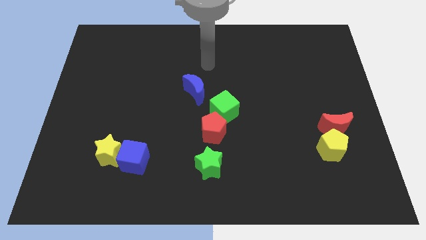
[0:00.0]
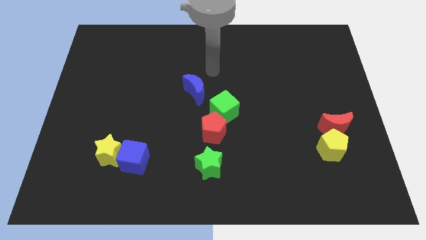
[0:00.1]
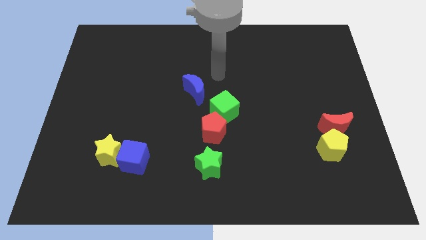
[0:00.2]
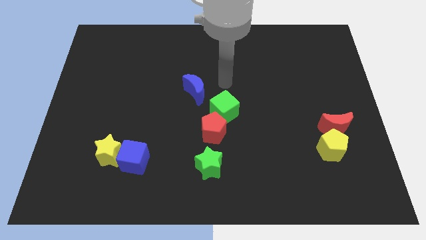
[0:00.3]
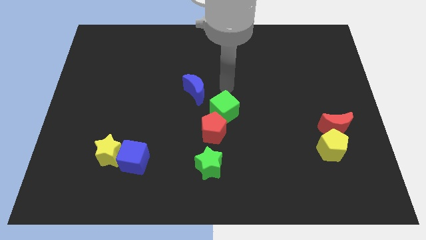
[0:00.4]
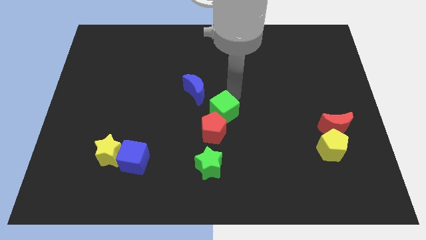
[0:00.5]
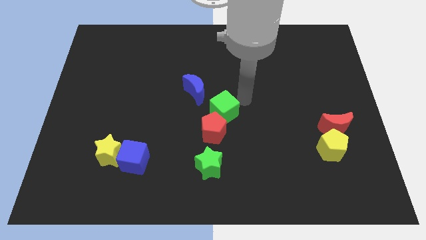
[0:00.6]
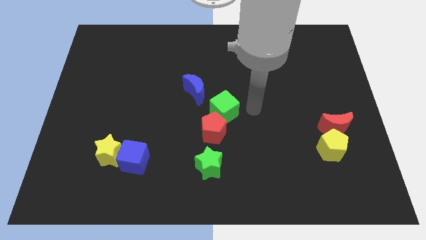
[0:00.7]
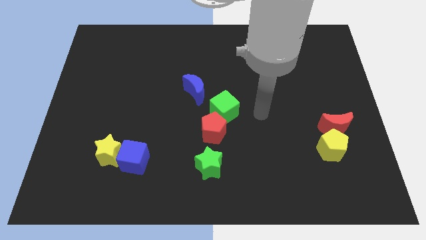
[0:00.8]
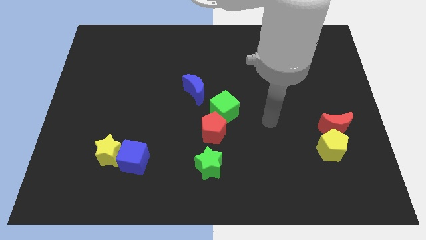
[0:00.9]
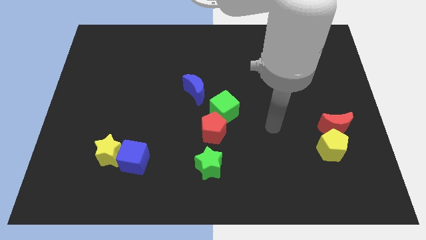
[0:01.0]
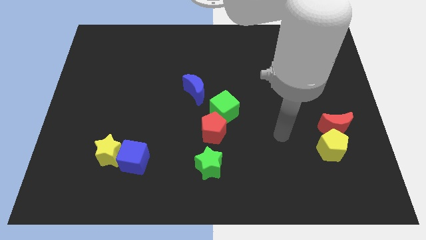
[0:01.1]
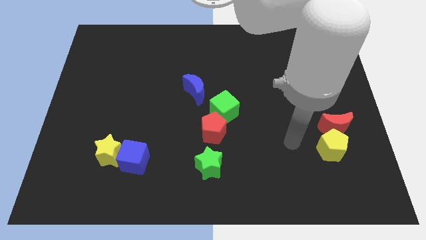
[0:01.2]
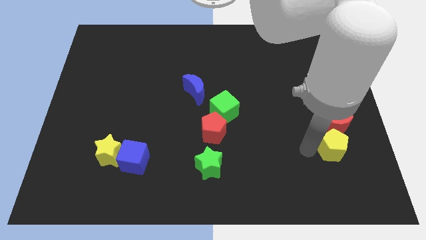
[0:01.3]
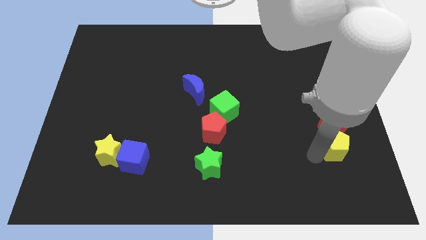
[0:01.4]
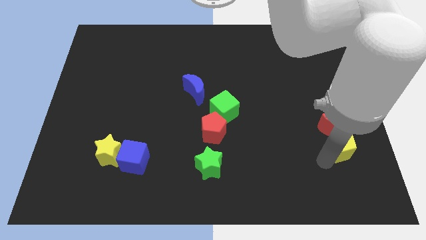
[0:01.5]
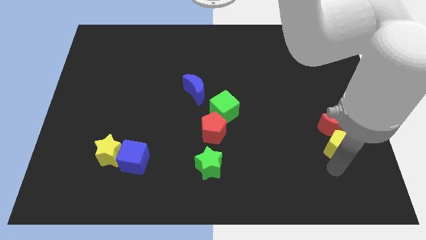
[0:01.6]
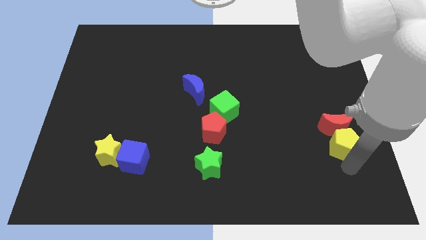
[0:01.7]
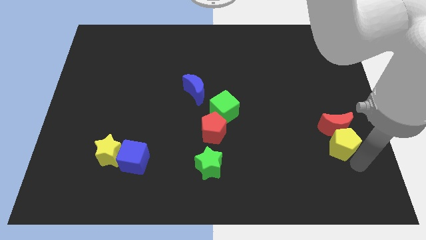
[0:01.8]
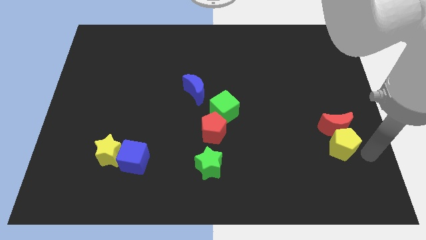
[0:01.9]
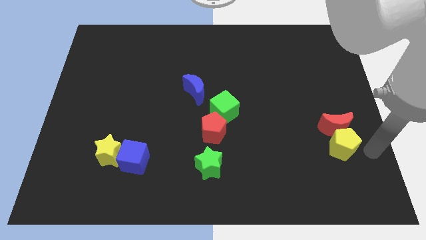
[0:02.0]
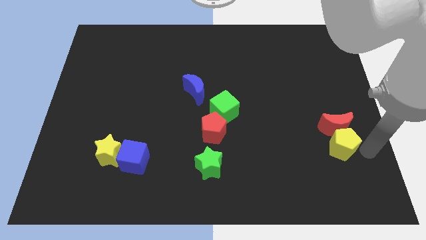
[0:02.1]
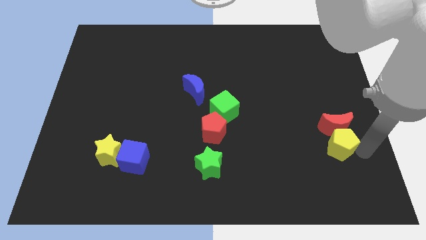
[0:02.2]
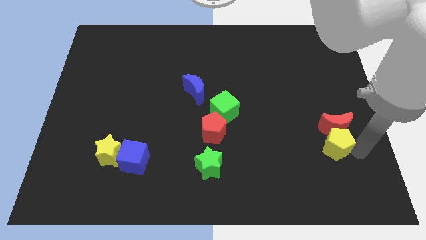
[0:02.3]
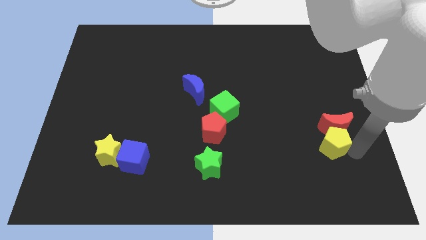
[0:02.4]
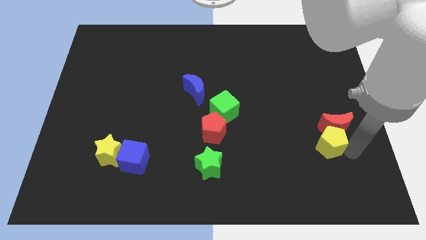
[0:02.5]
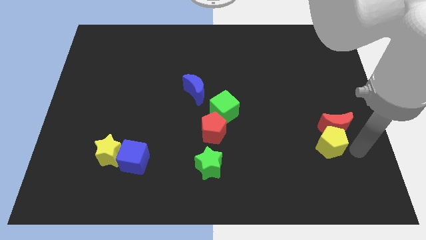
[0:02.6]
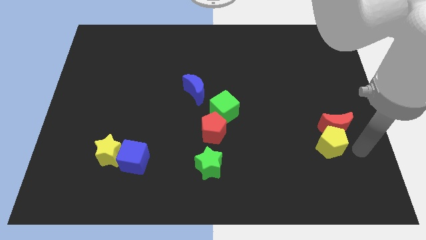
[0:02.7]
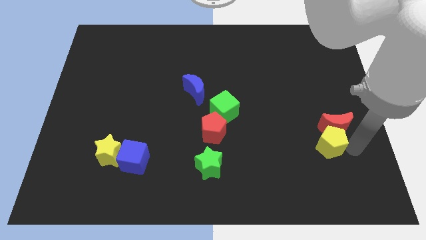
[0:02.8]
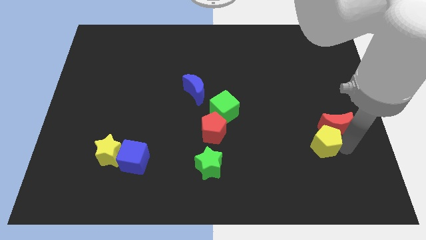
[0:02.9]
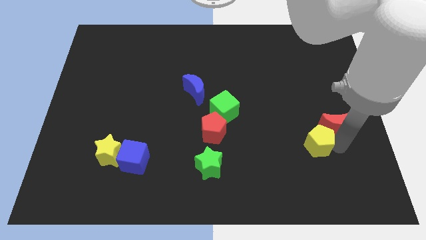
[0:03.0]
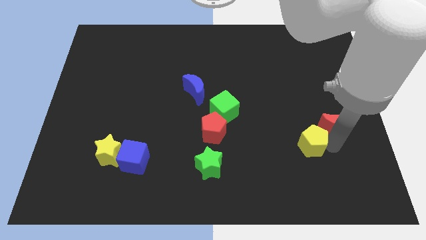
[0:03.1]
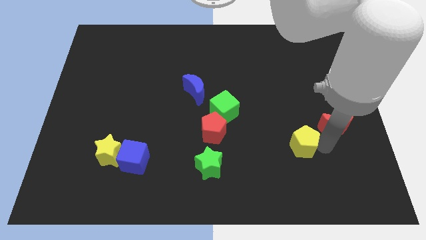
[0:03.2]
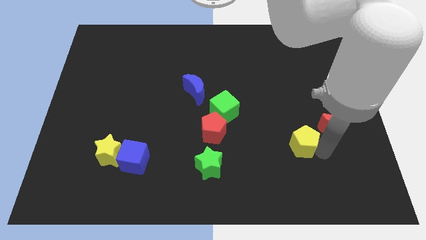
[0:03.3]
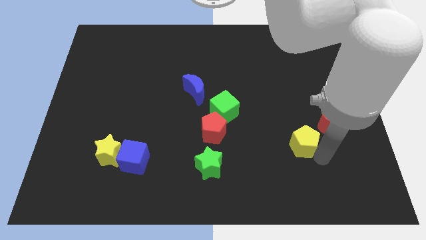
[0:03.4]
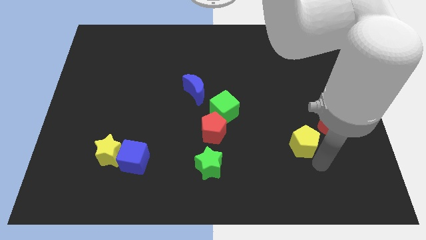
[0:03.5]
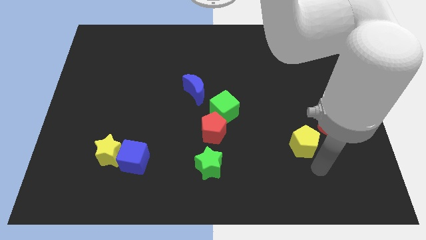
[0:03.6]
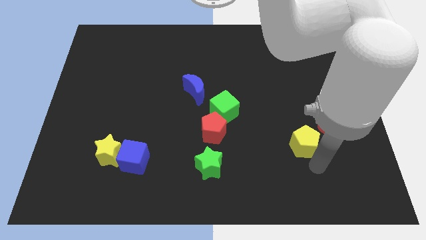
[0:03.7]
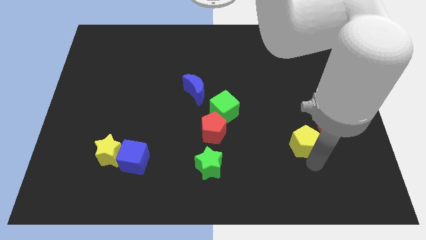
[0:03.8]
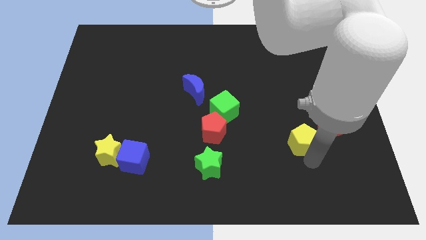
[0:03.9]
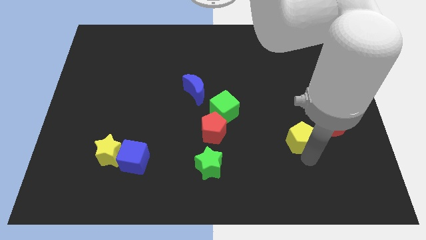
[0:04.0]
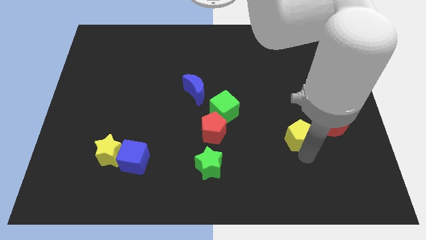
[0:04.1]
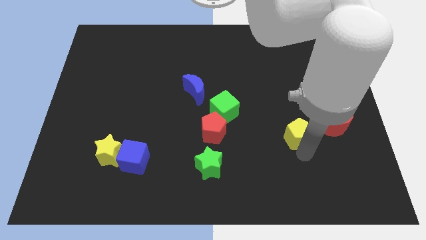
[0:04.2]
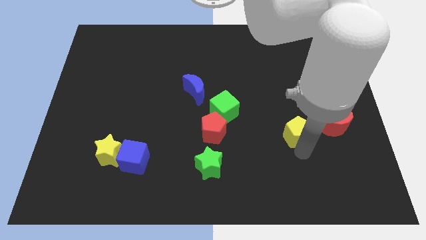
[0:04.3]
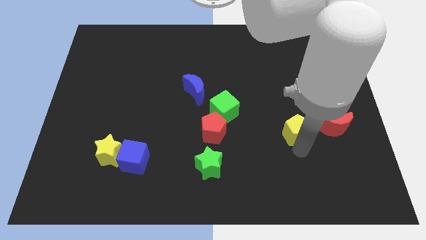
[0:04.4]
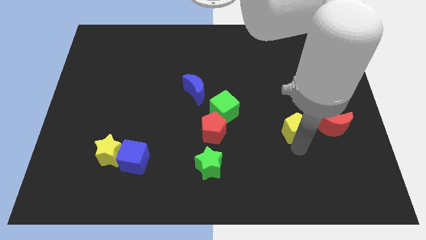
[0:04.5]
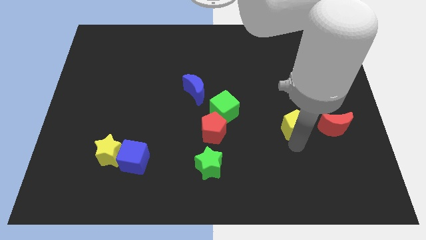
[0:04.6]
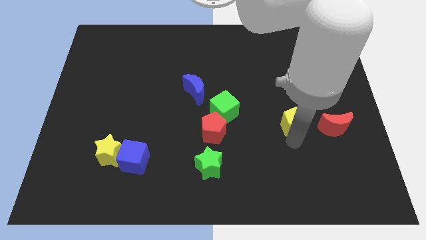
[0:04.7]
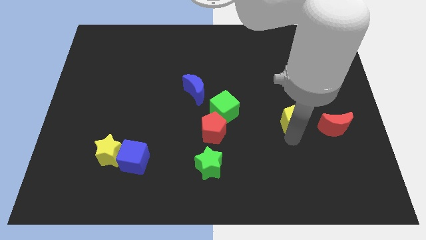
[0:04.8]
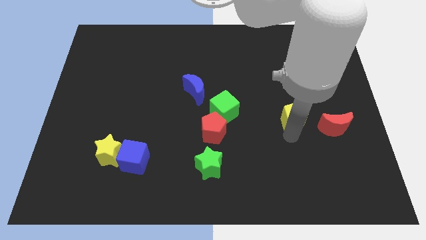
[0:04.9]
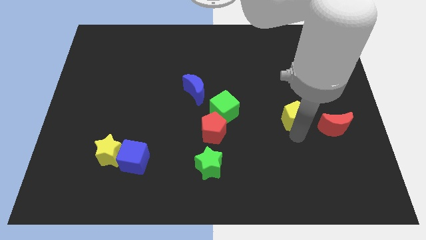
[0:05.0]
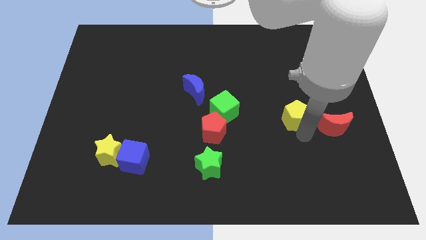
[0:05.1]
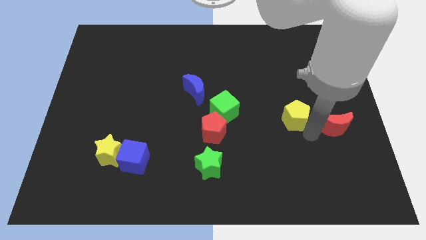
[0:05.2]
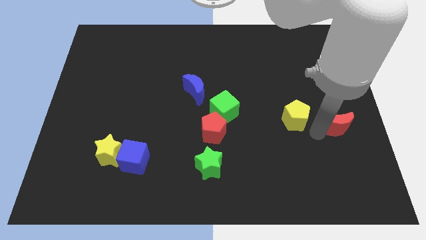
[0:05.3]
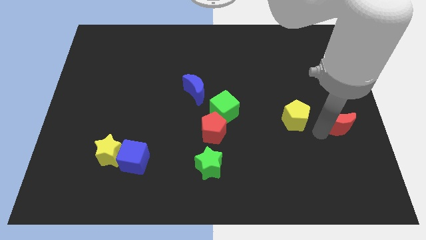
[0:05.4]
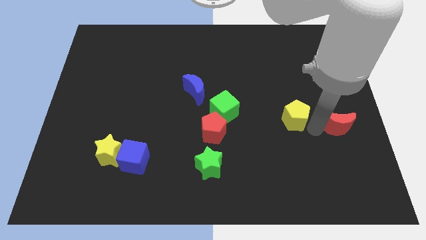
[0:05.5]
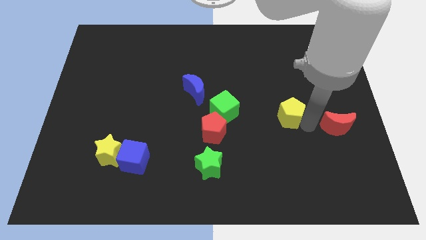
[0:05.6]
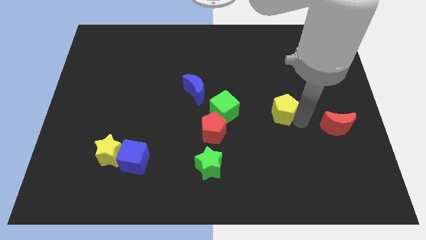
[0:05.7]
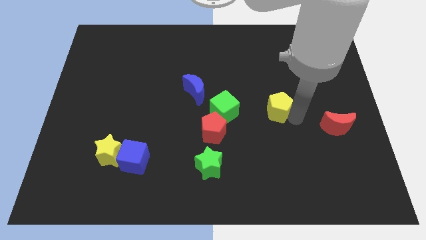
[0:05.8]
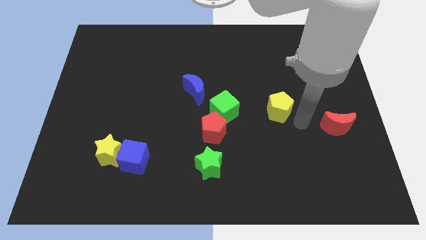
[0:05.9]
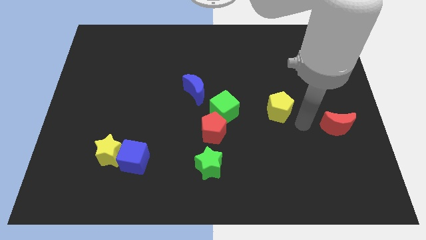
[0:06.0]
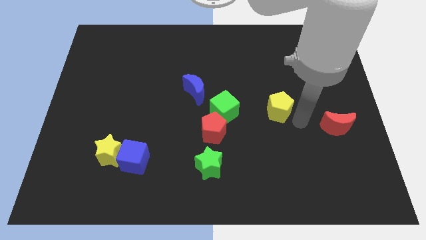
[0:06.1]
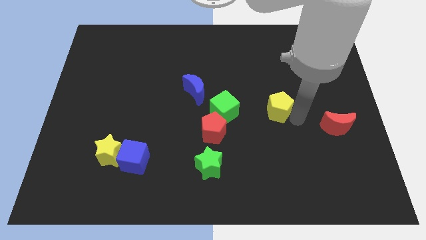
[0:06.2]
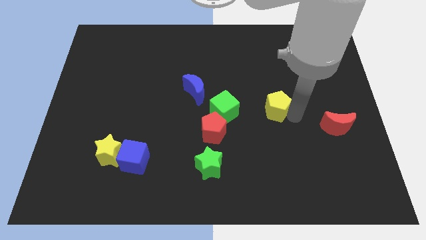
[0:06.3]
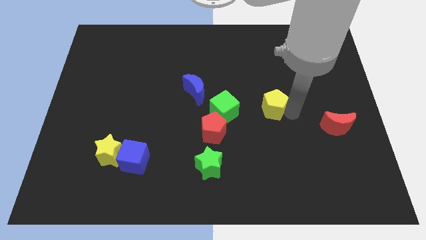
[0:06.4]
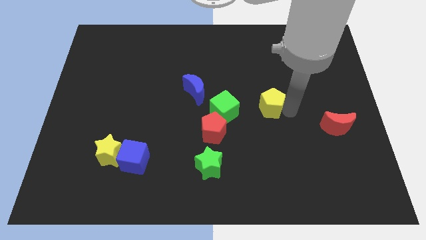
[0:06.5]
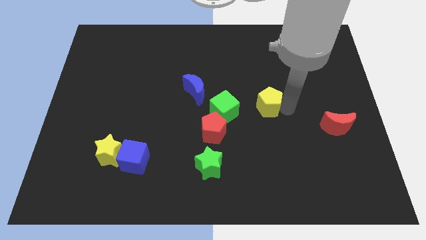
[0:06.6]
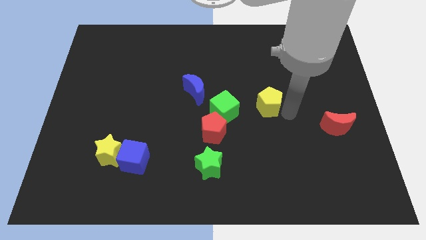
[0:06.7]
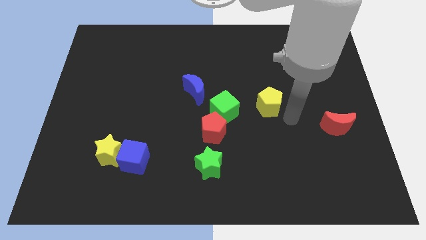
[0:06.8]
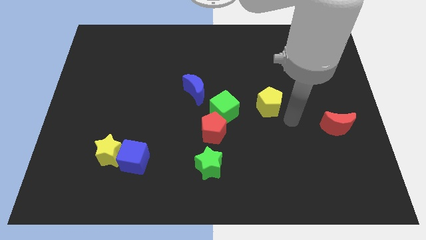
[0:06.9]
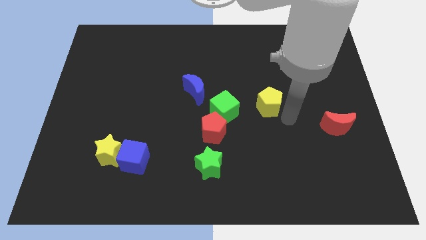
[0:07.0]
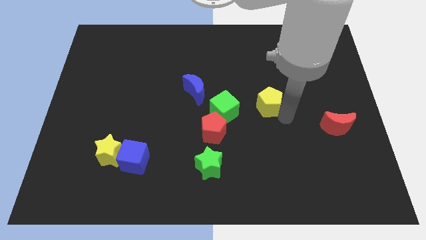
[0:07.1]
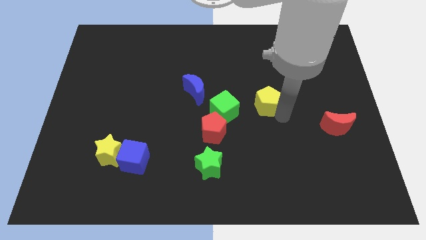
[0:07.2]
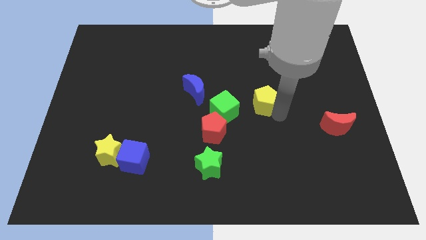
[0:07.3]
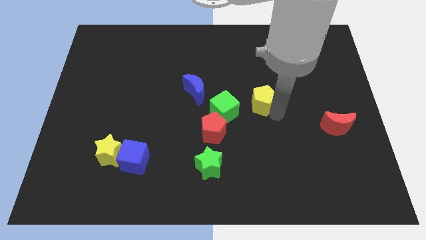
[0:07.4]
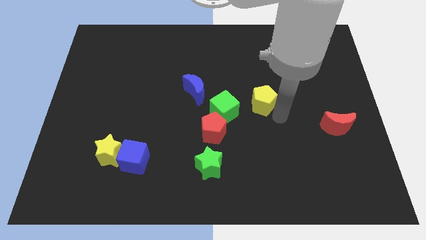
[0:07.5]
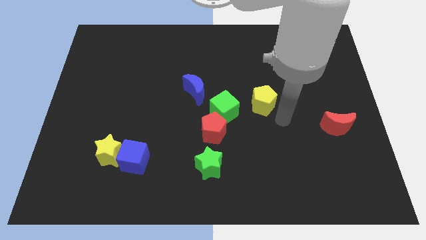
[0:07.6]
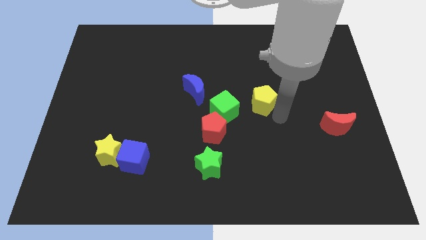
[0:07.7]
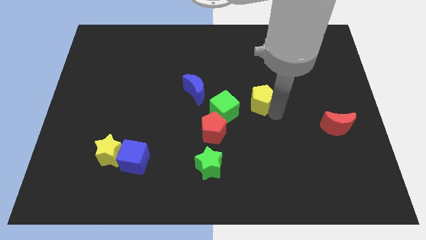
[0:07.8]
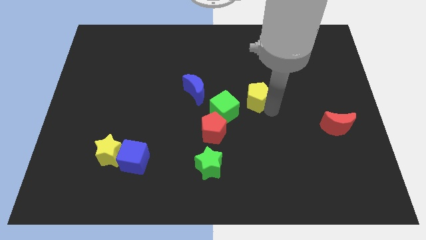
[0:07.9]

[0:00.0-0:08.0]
slide the yellow pentagon upwards and then to the left
